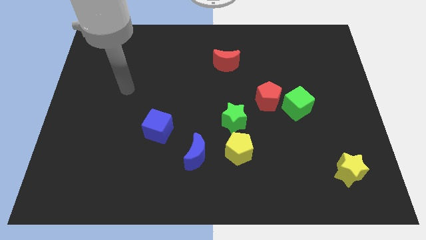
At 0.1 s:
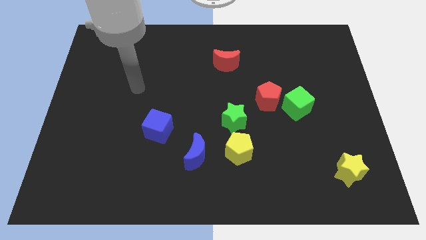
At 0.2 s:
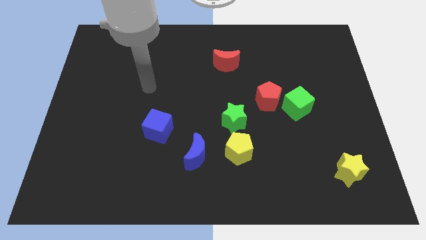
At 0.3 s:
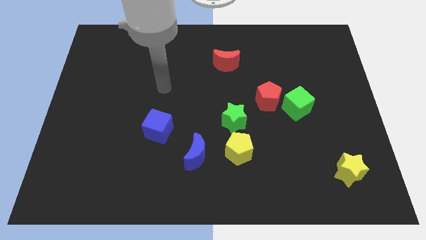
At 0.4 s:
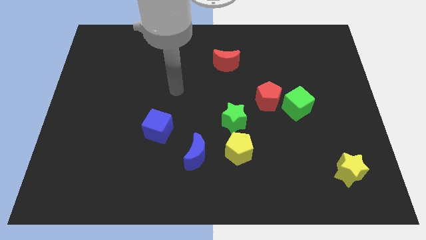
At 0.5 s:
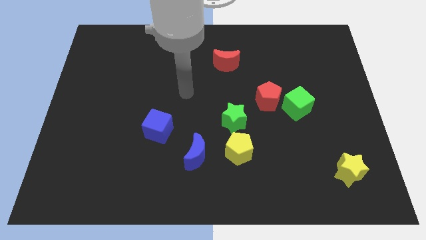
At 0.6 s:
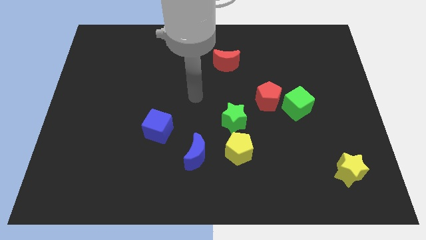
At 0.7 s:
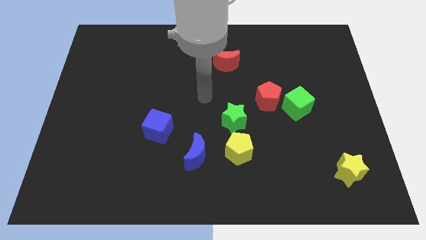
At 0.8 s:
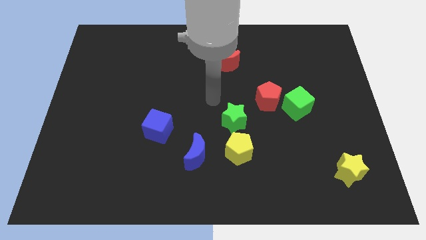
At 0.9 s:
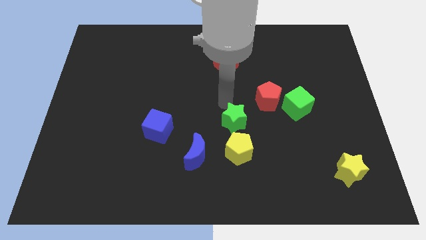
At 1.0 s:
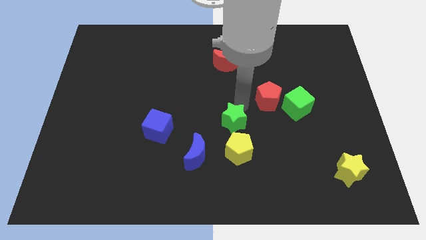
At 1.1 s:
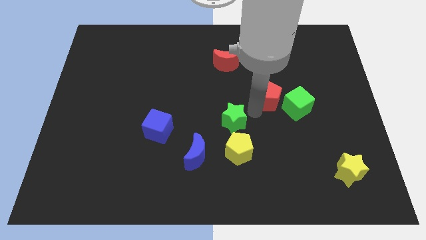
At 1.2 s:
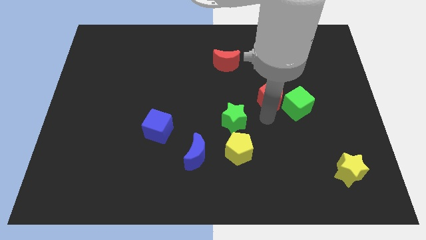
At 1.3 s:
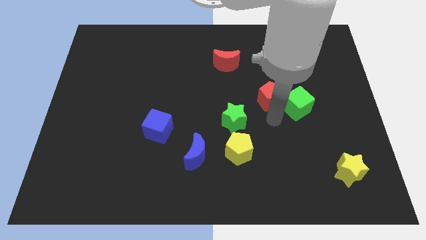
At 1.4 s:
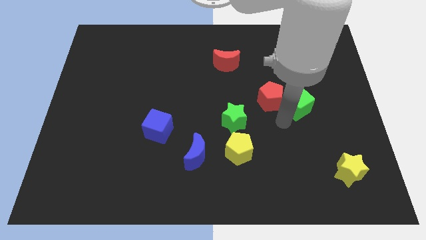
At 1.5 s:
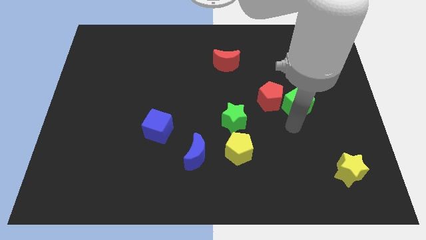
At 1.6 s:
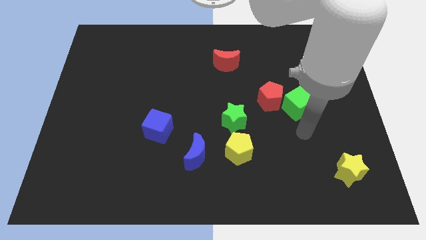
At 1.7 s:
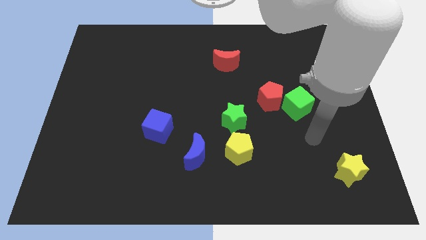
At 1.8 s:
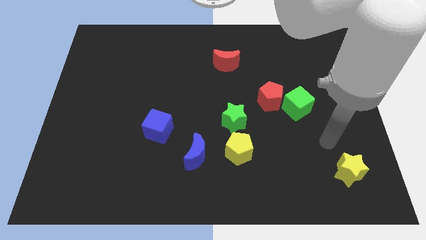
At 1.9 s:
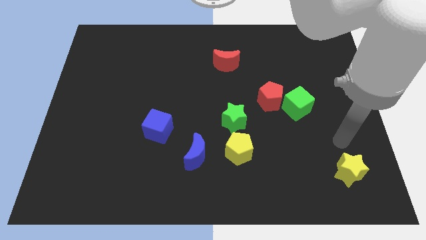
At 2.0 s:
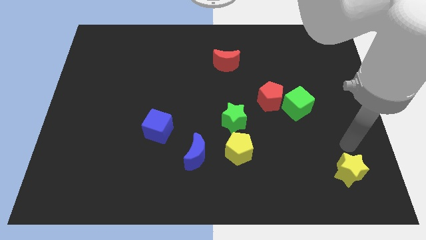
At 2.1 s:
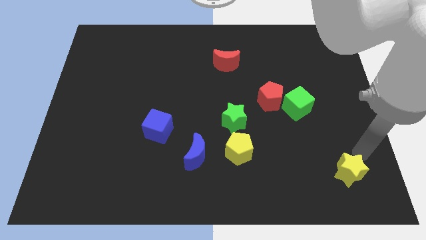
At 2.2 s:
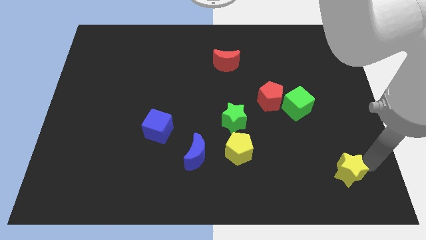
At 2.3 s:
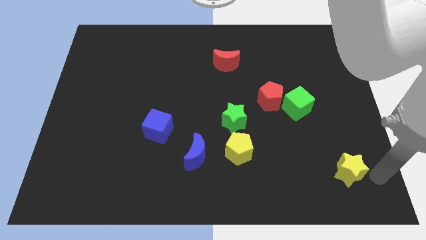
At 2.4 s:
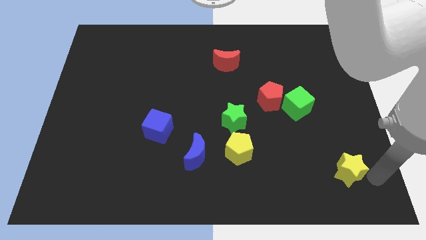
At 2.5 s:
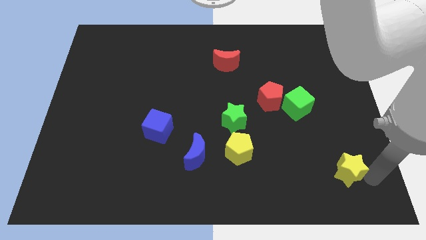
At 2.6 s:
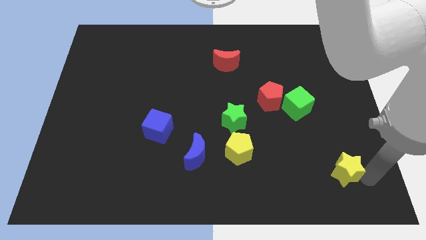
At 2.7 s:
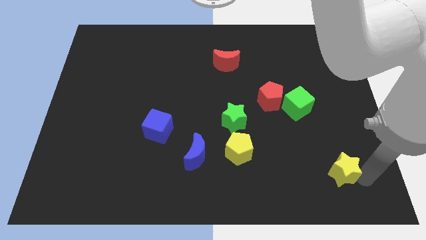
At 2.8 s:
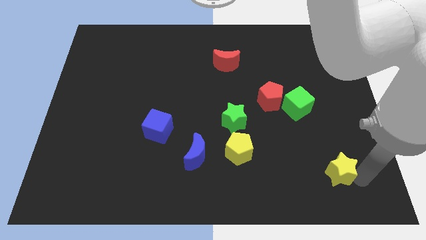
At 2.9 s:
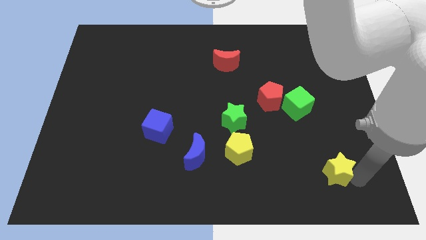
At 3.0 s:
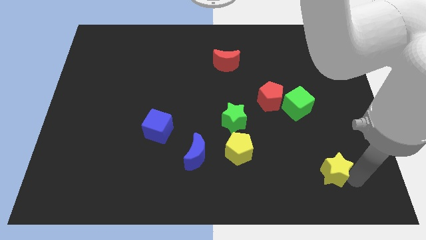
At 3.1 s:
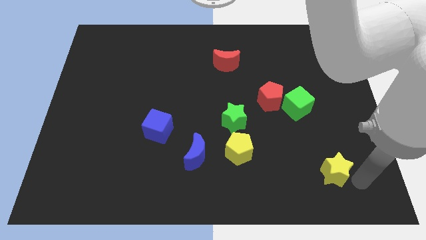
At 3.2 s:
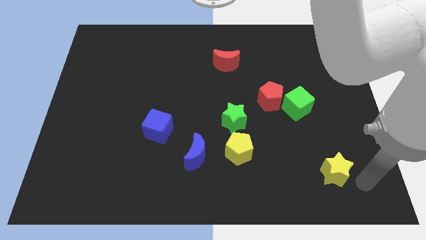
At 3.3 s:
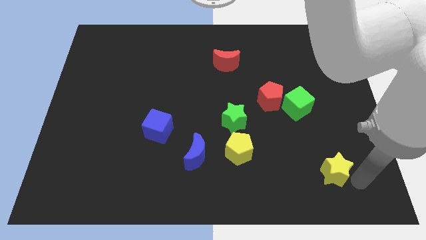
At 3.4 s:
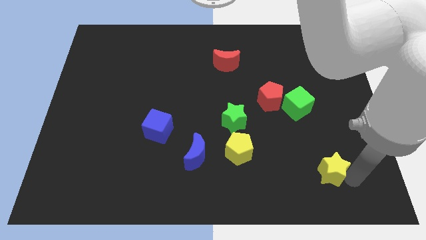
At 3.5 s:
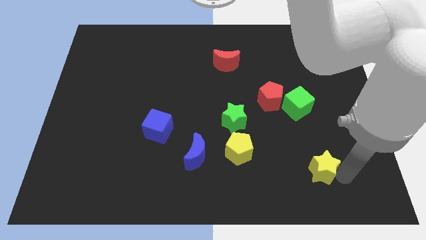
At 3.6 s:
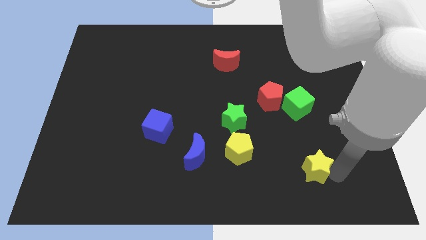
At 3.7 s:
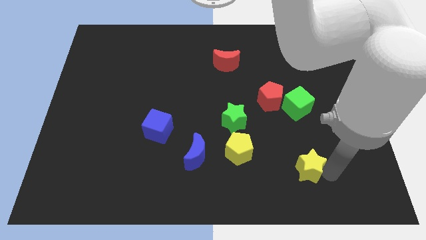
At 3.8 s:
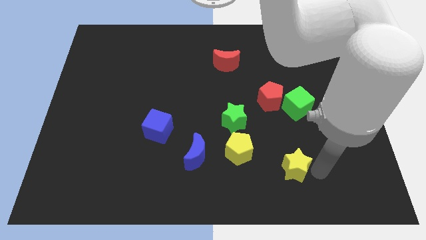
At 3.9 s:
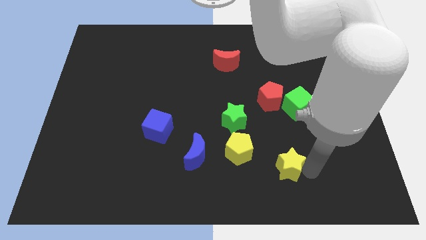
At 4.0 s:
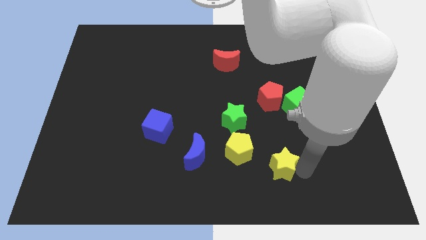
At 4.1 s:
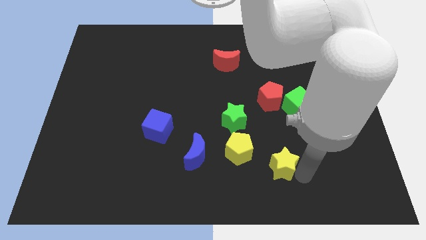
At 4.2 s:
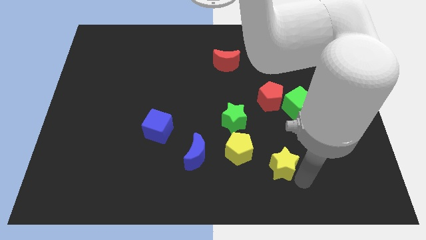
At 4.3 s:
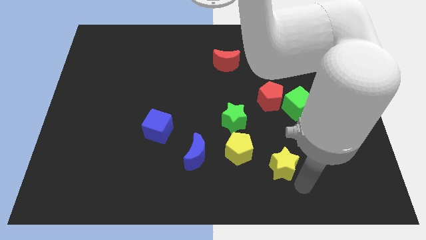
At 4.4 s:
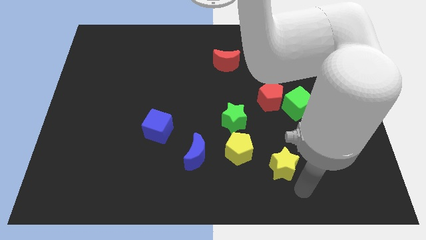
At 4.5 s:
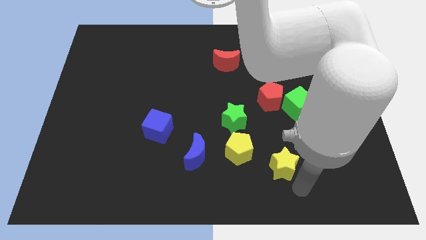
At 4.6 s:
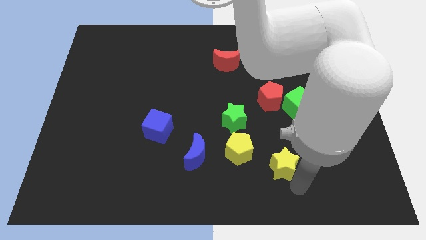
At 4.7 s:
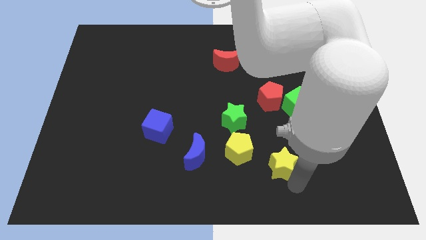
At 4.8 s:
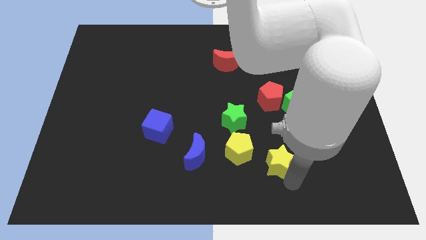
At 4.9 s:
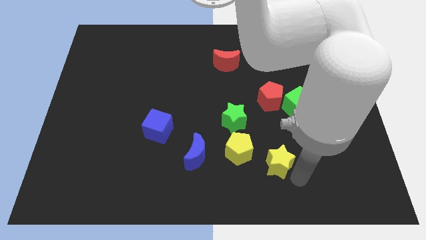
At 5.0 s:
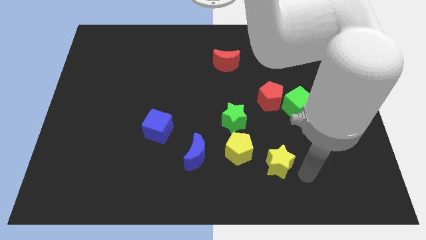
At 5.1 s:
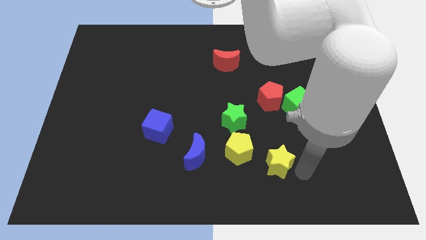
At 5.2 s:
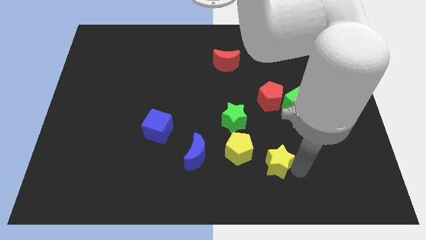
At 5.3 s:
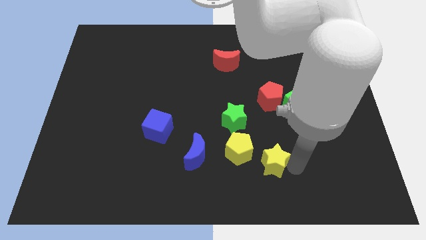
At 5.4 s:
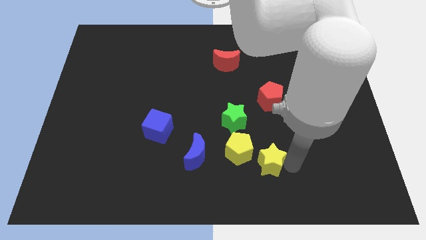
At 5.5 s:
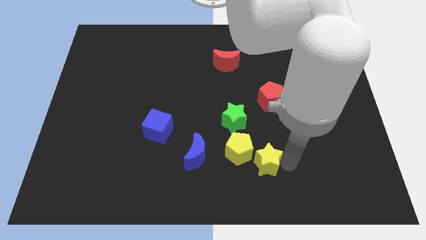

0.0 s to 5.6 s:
slide the yellow star close to the yellow pentagon

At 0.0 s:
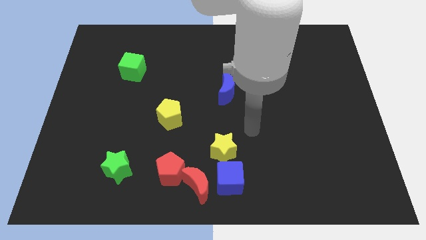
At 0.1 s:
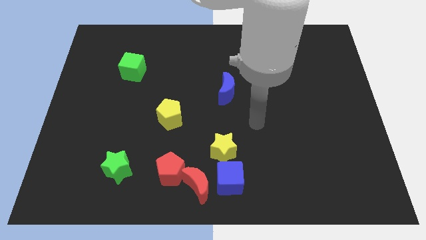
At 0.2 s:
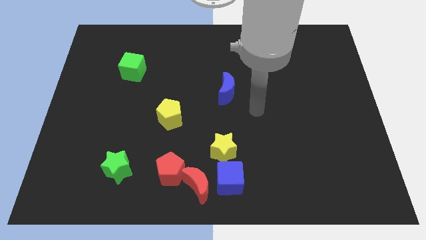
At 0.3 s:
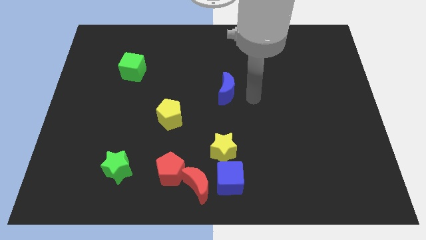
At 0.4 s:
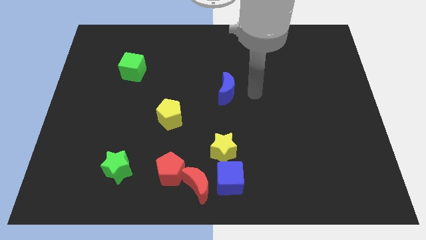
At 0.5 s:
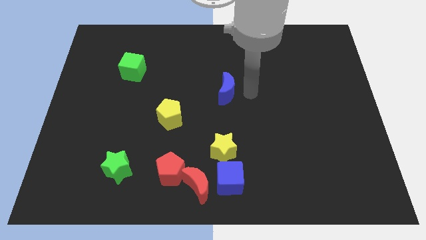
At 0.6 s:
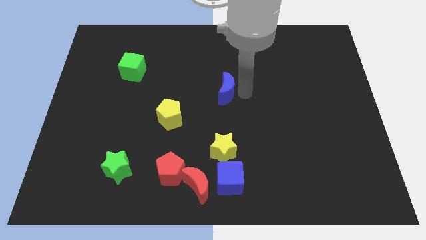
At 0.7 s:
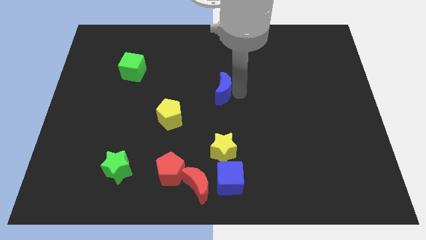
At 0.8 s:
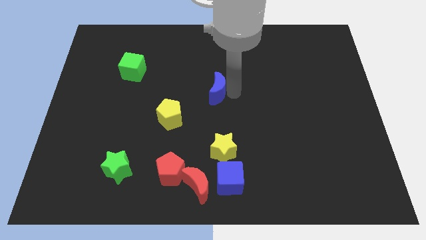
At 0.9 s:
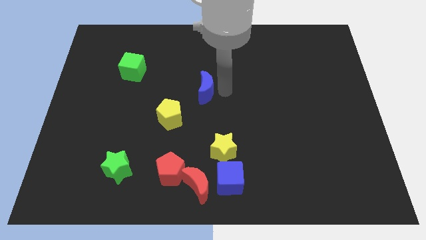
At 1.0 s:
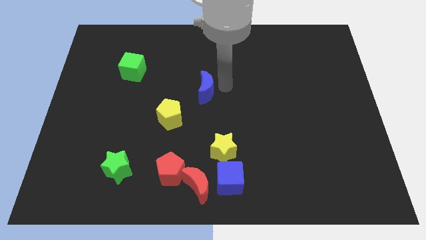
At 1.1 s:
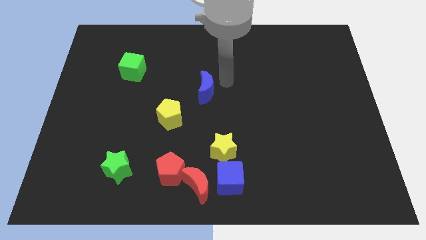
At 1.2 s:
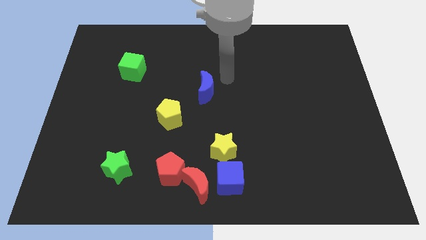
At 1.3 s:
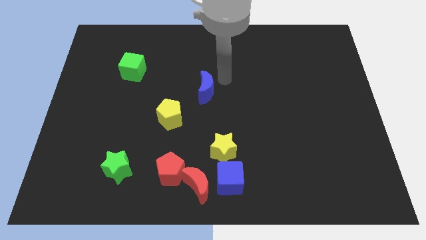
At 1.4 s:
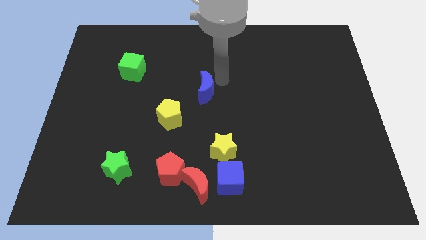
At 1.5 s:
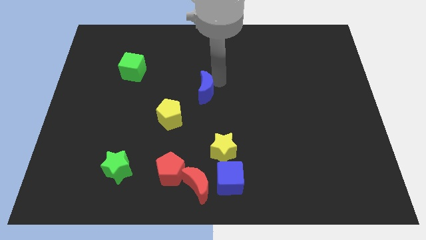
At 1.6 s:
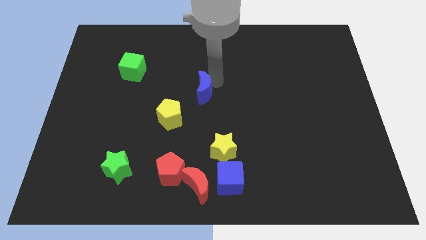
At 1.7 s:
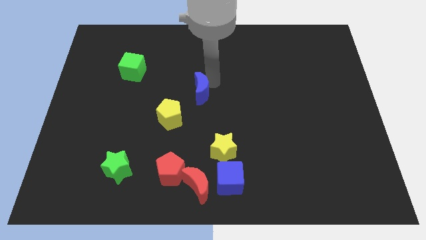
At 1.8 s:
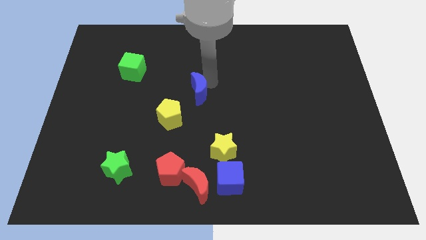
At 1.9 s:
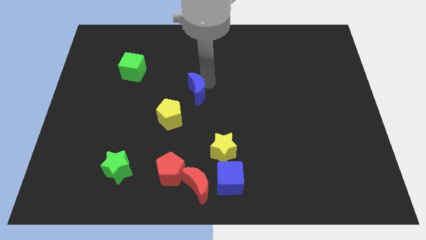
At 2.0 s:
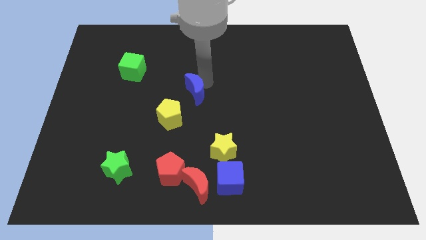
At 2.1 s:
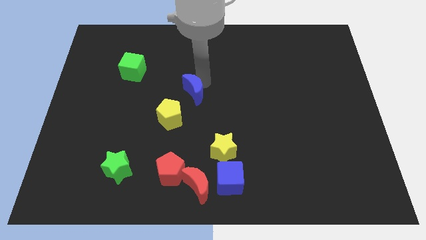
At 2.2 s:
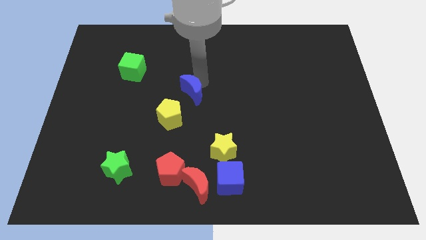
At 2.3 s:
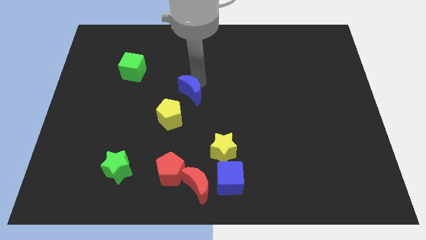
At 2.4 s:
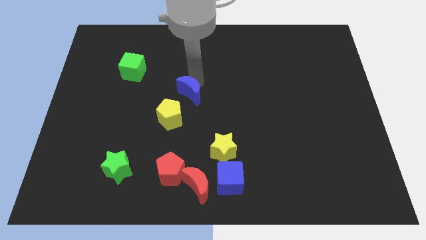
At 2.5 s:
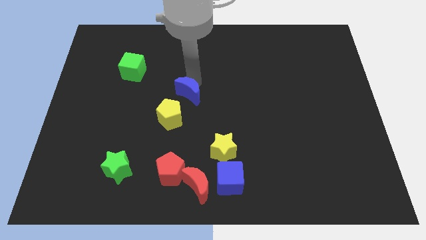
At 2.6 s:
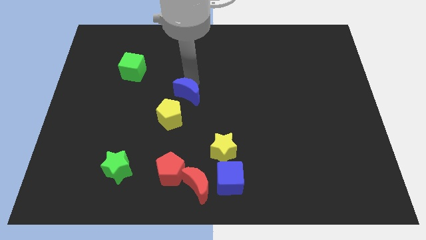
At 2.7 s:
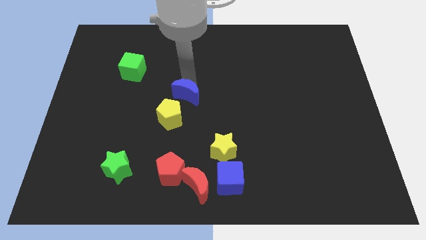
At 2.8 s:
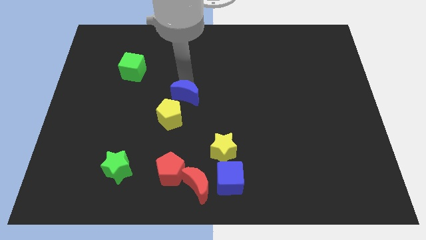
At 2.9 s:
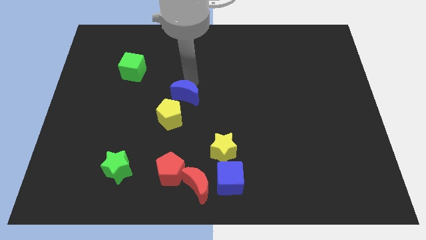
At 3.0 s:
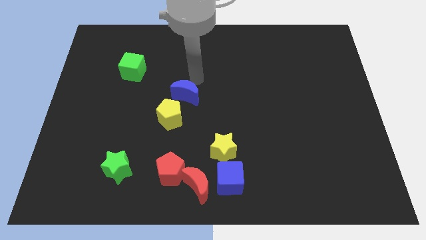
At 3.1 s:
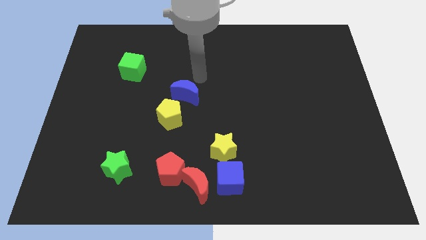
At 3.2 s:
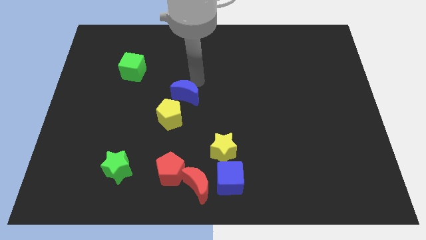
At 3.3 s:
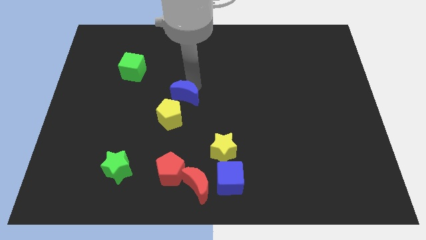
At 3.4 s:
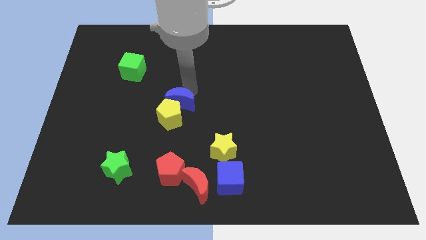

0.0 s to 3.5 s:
put the blue moon towards the yellow pentagon
